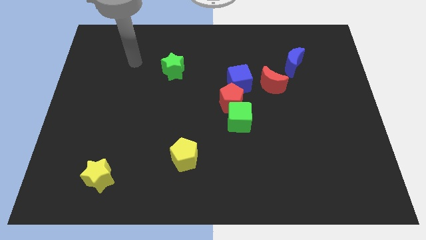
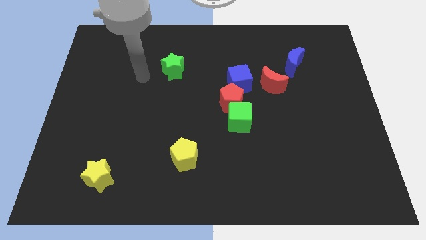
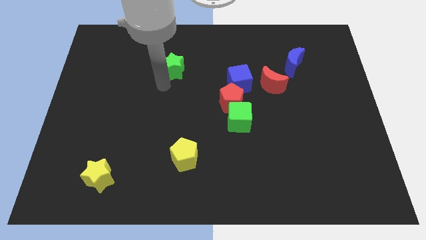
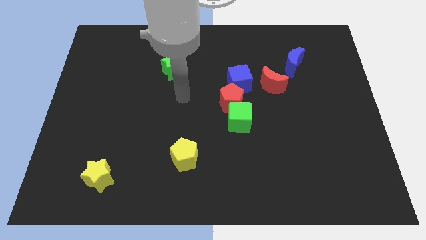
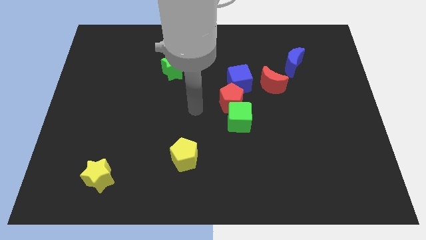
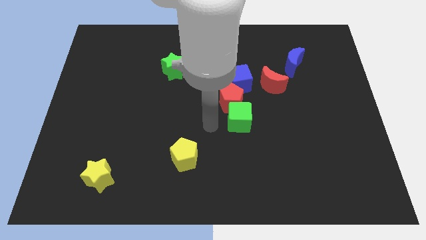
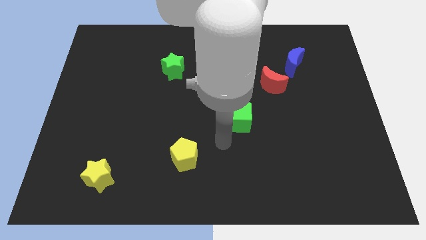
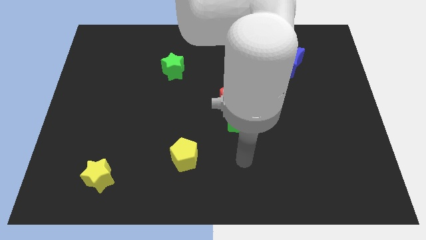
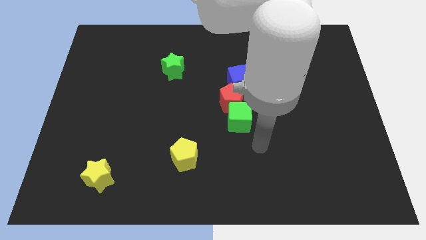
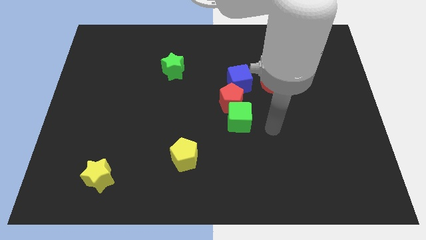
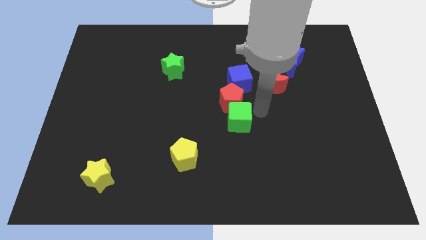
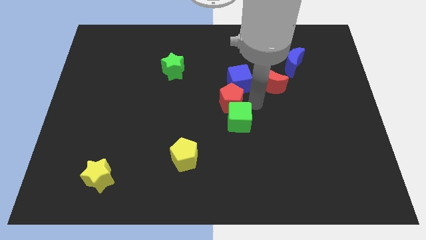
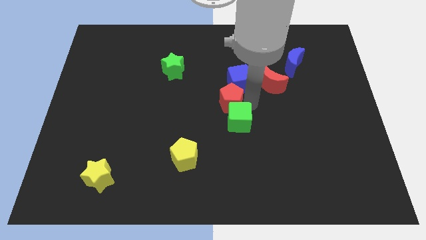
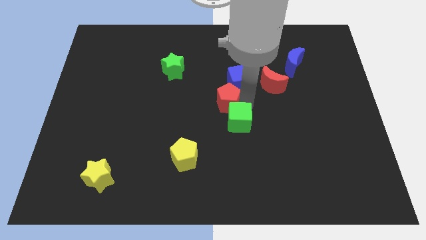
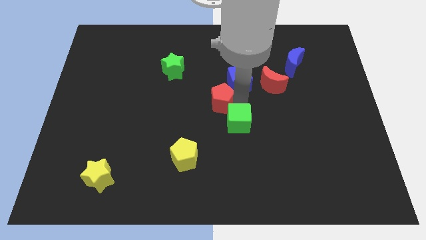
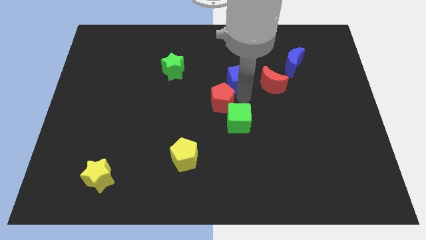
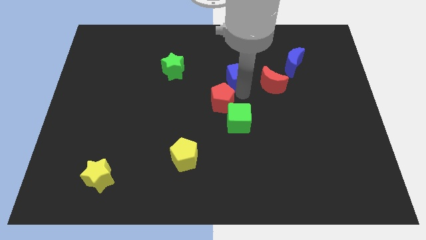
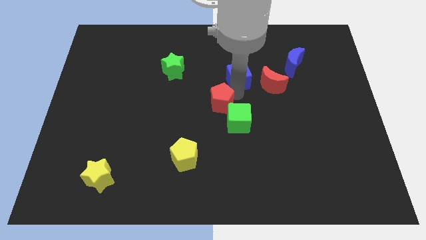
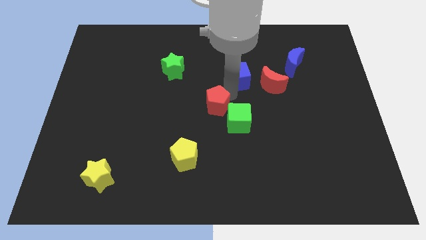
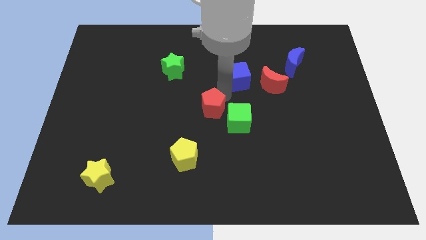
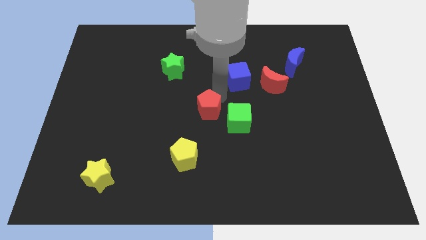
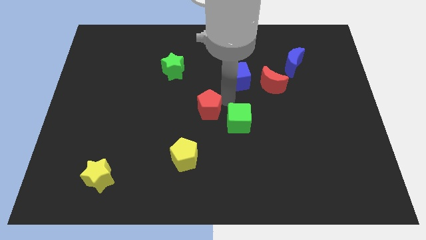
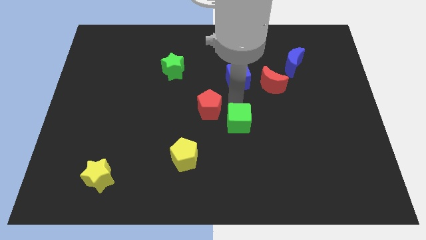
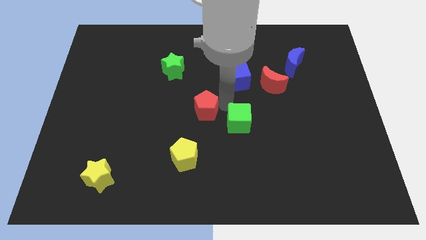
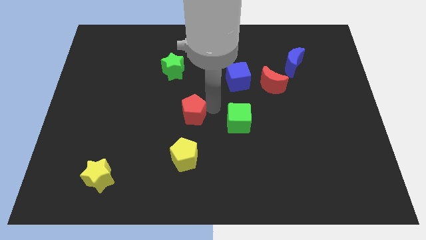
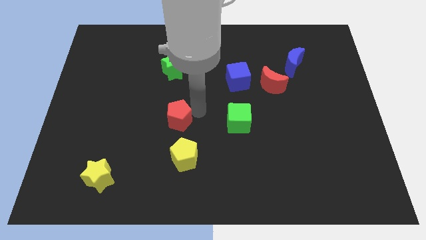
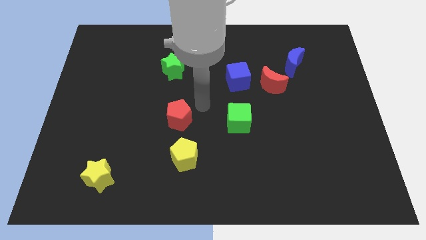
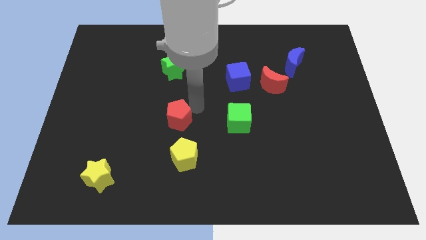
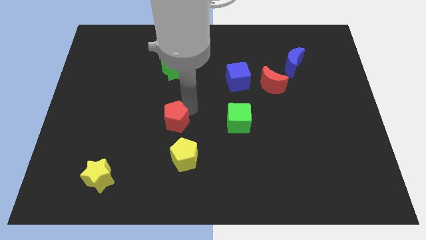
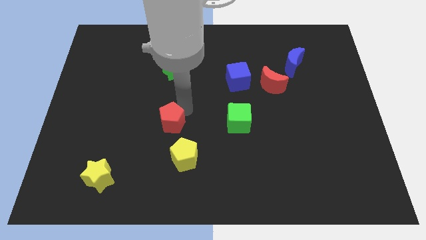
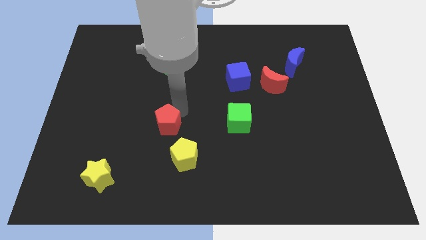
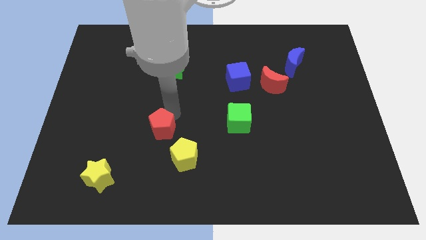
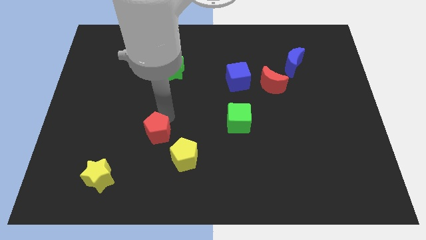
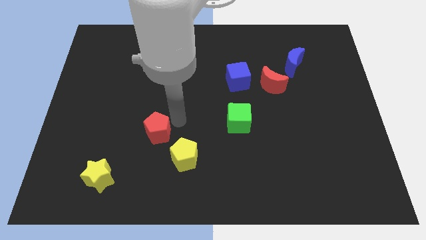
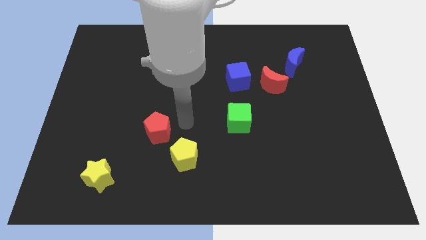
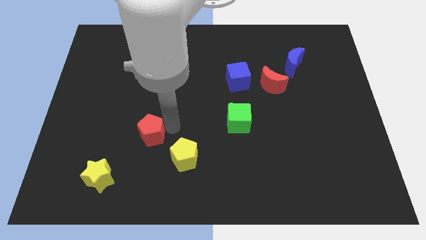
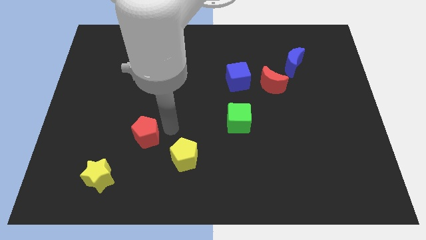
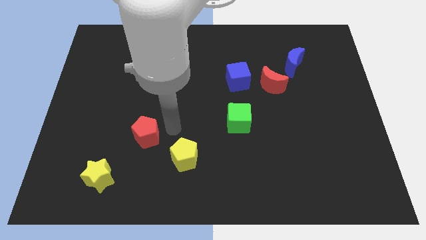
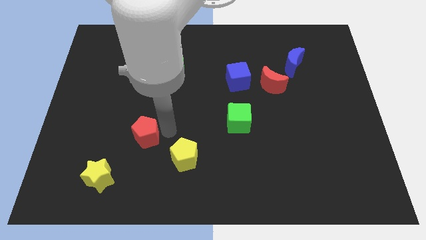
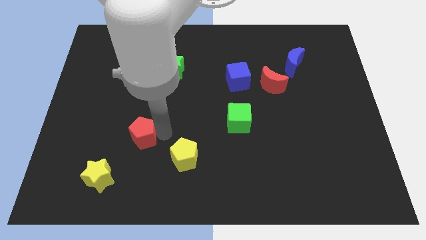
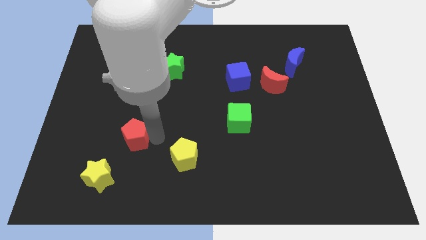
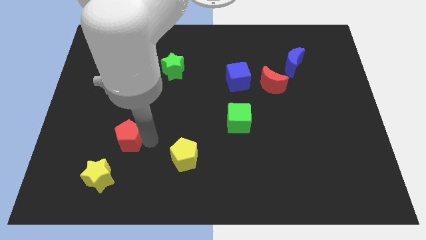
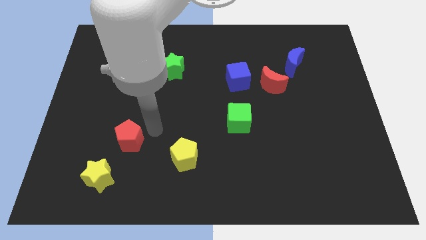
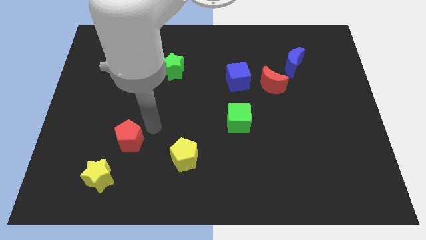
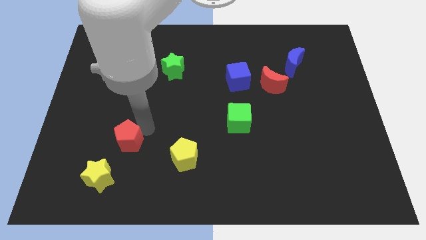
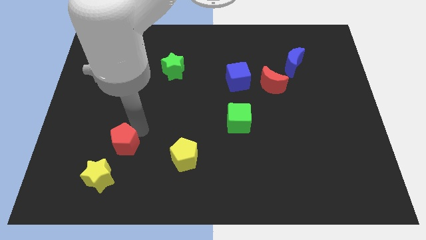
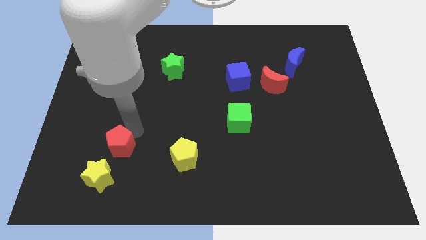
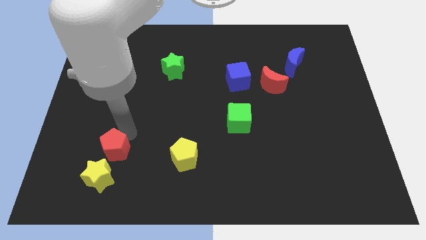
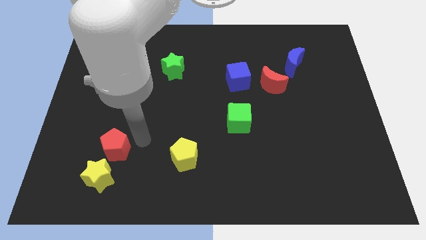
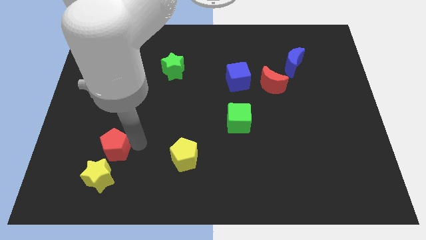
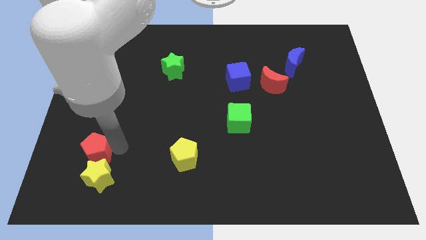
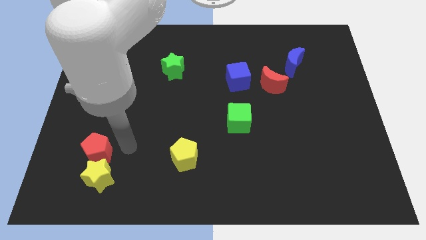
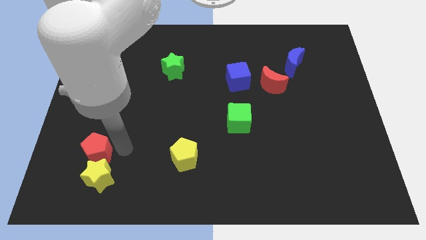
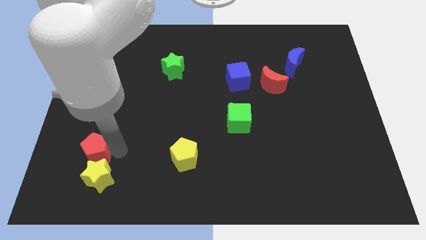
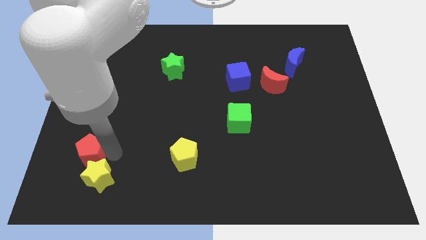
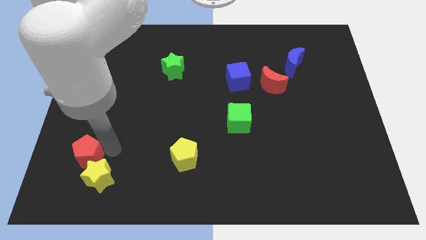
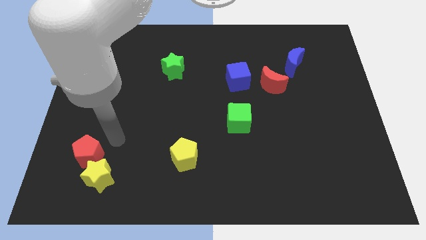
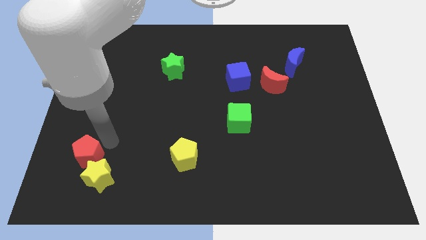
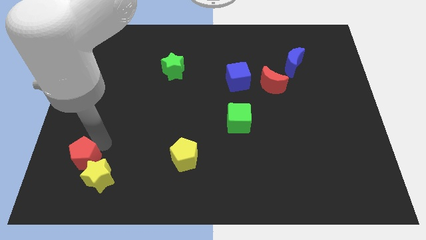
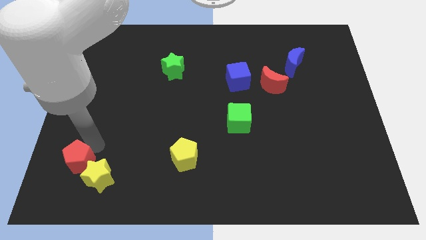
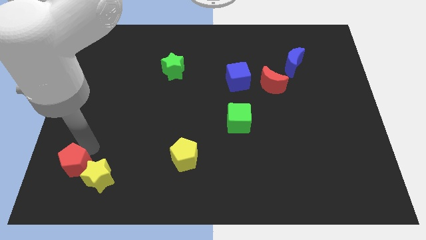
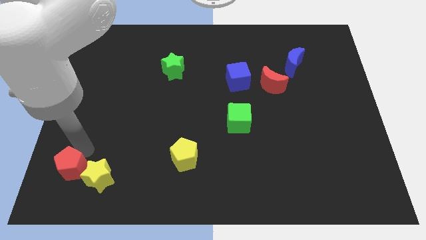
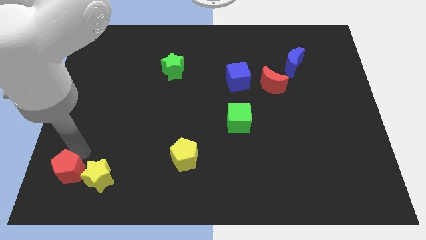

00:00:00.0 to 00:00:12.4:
put the red pentagon to the bottom left of the board
